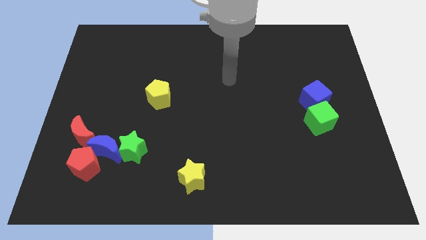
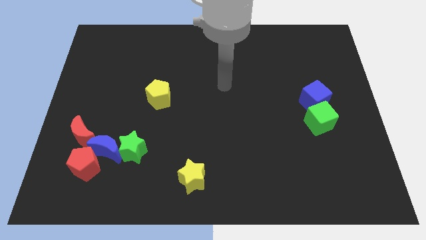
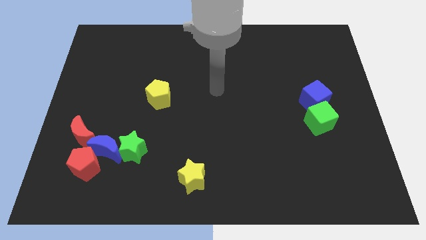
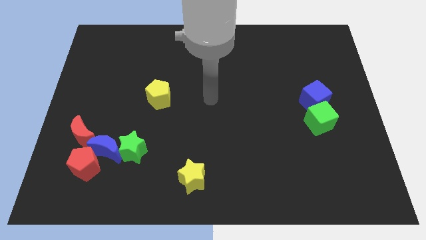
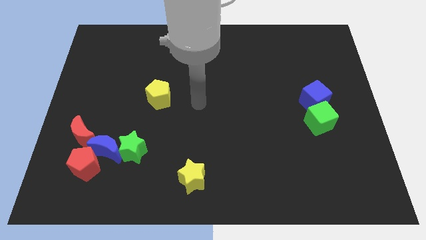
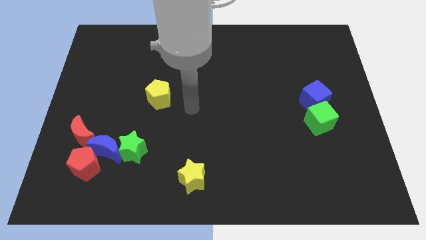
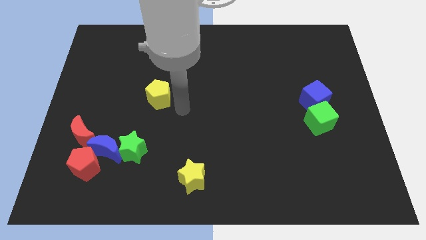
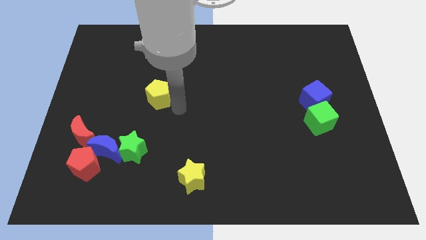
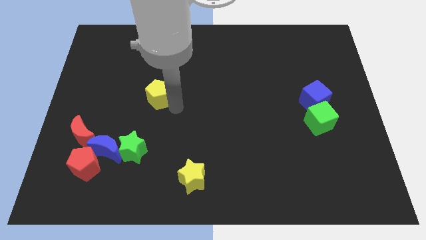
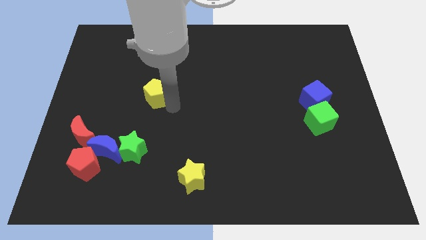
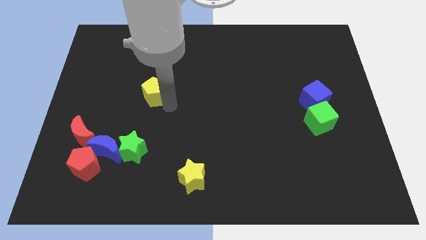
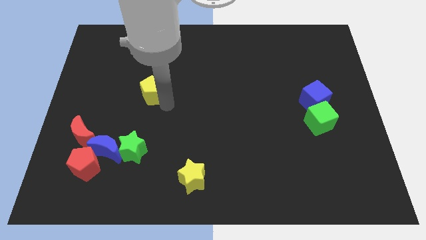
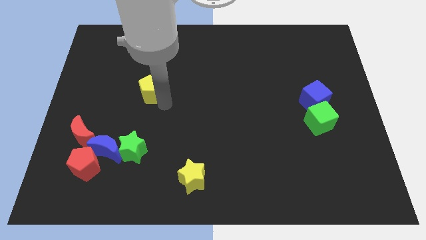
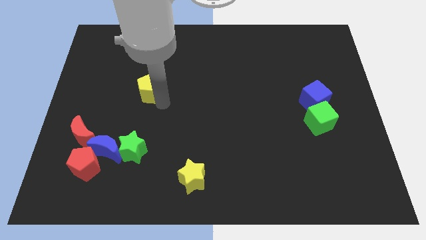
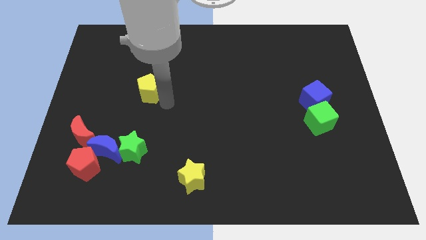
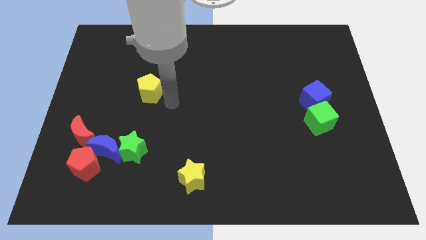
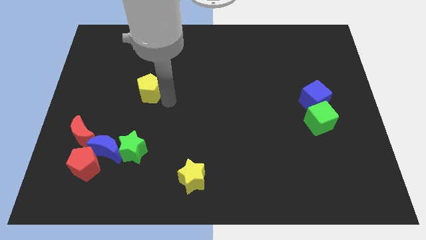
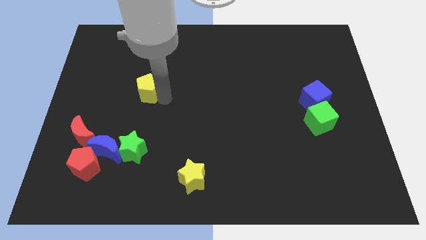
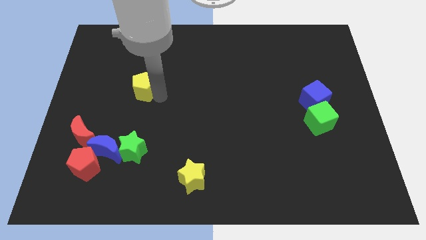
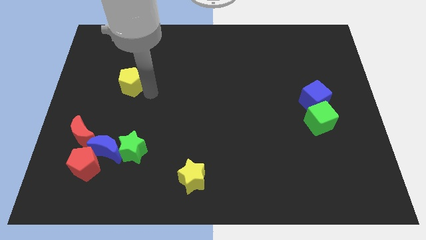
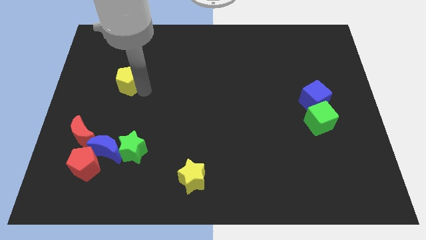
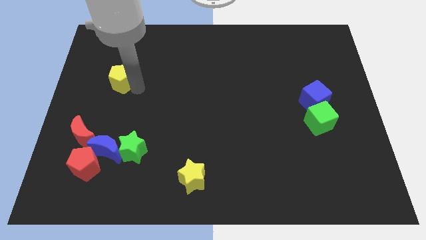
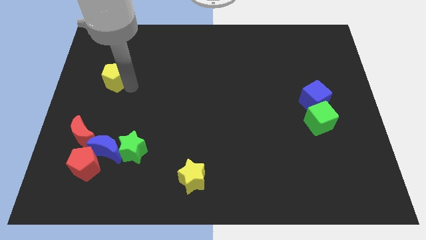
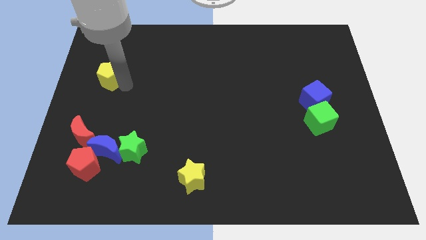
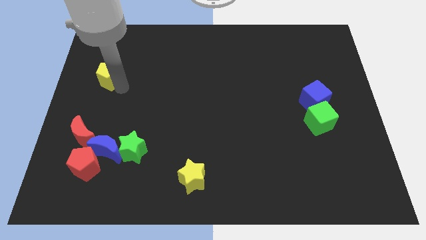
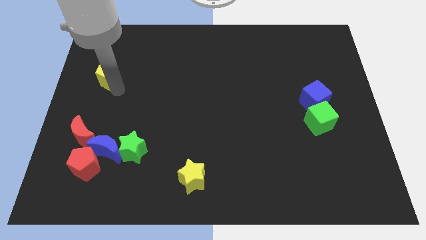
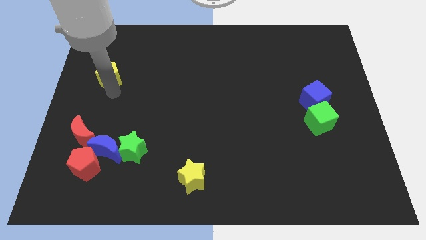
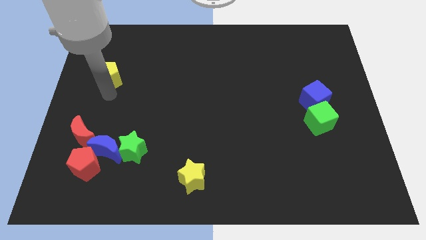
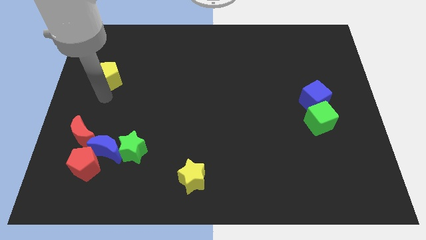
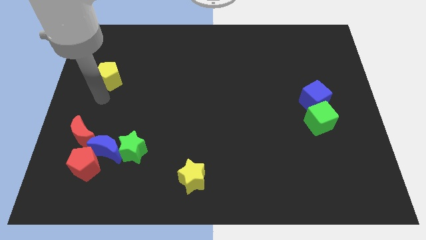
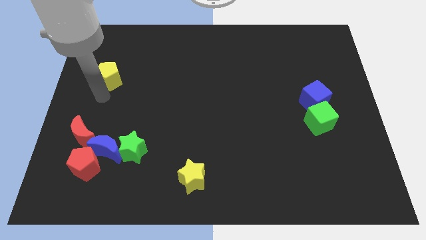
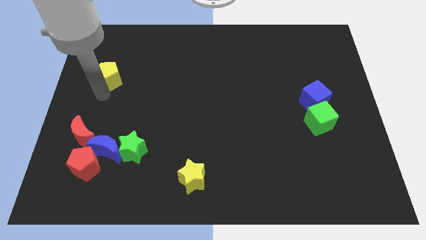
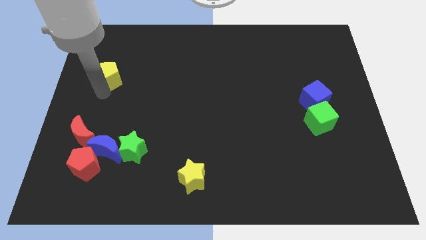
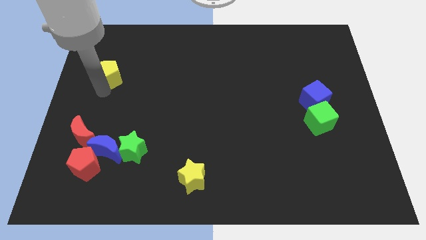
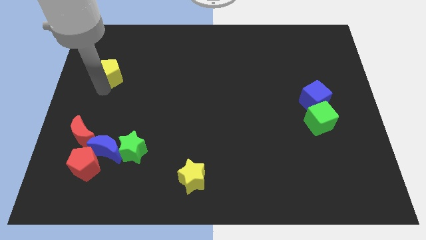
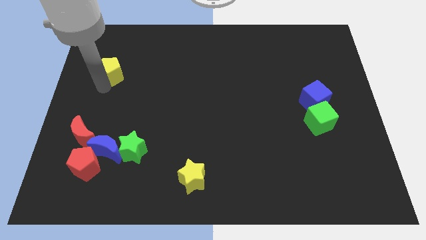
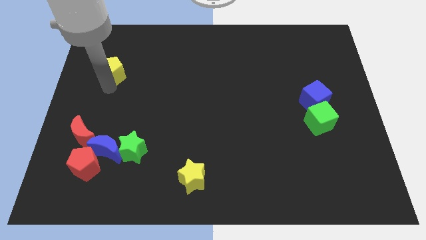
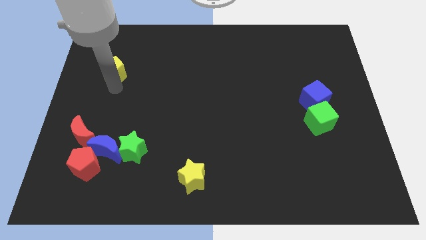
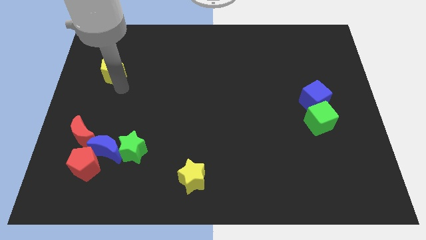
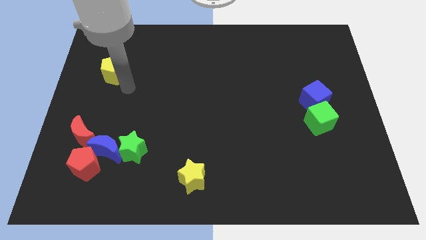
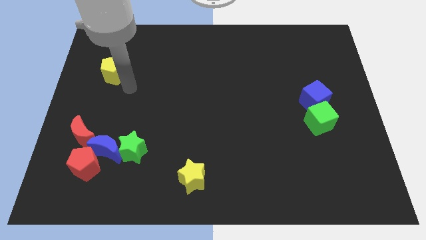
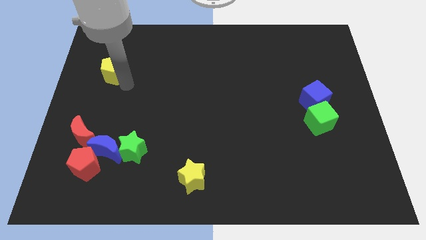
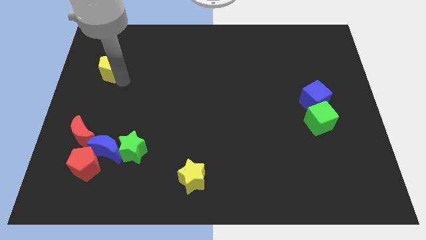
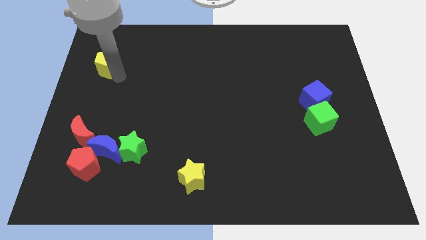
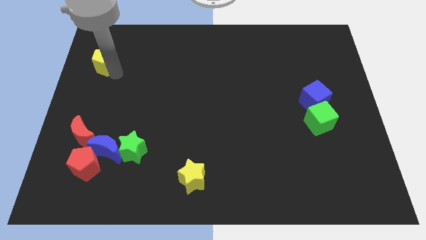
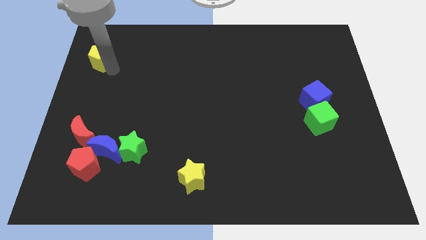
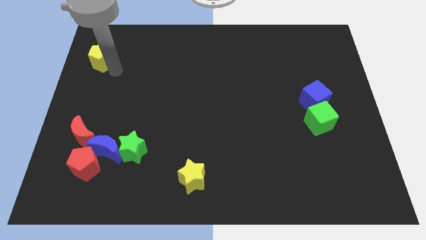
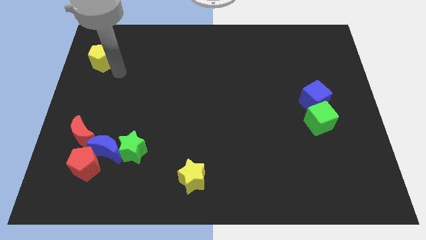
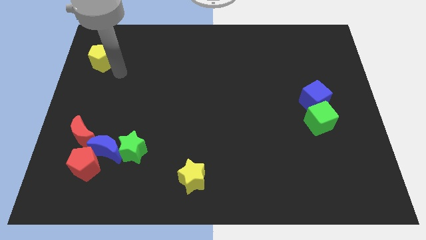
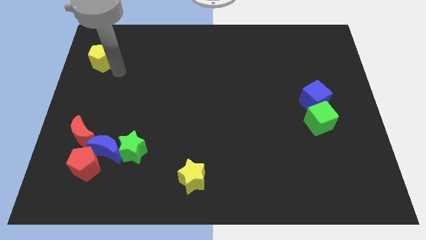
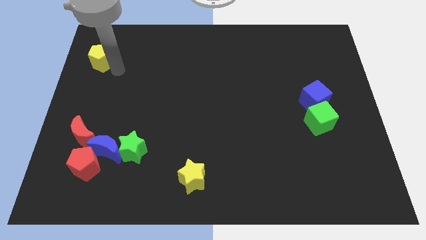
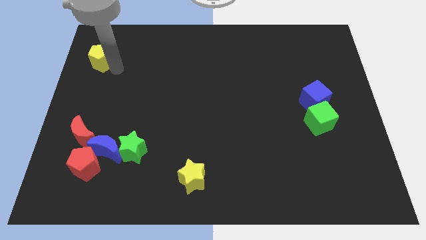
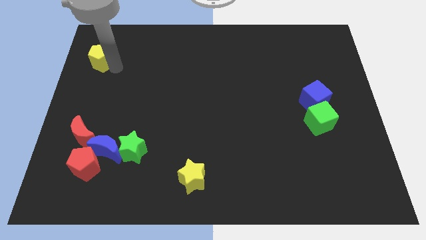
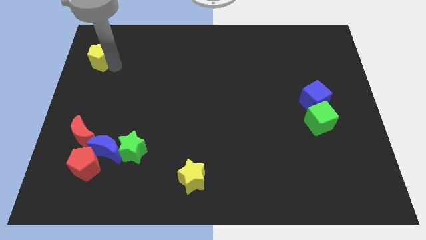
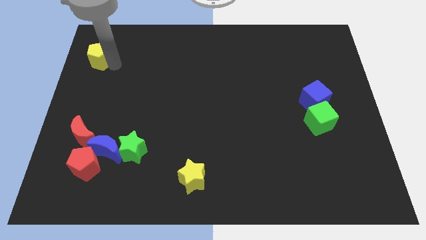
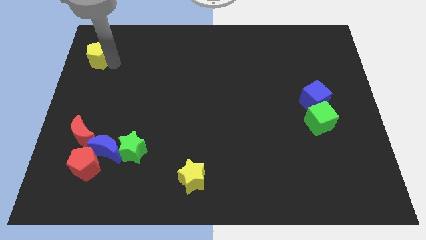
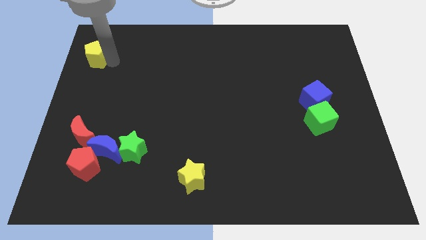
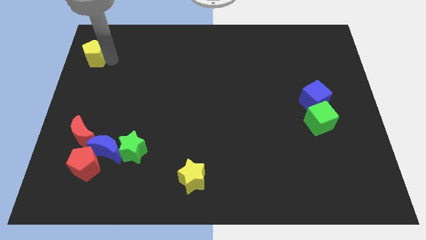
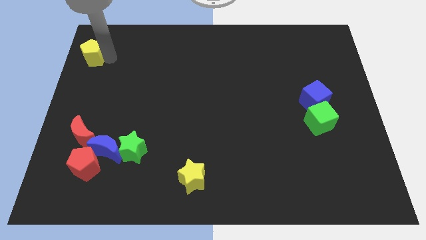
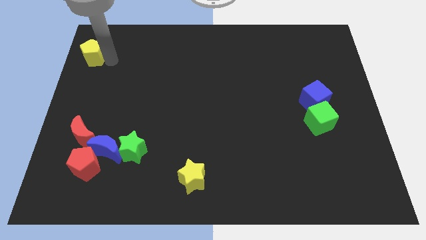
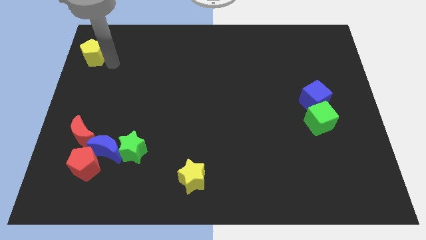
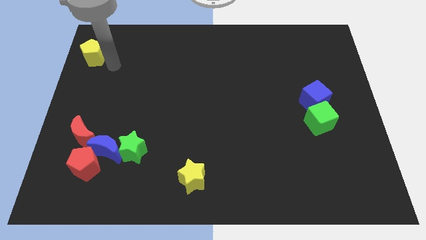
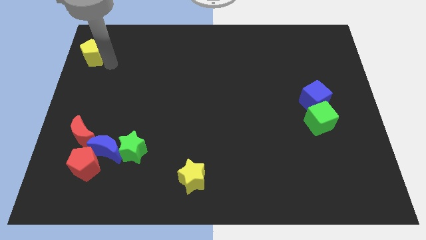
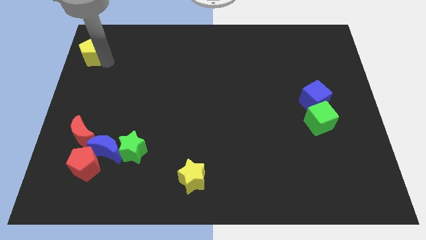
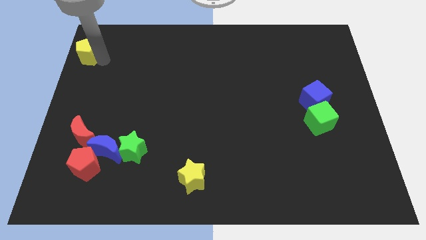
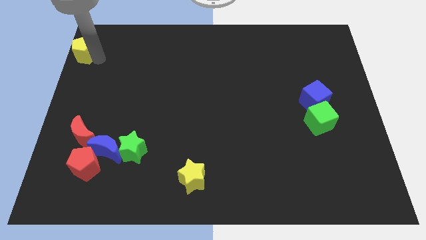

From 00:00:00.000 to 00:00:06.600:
put the yellow pentagon to the top left corner

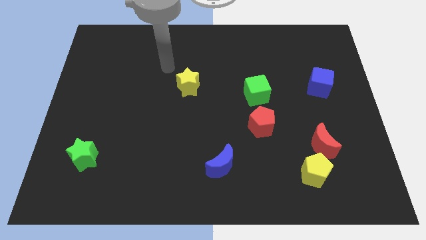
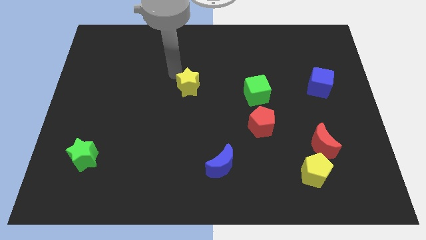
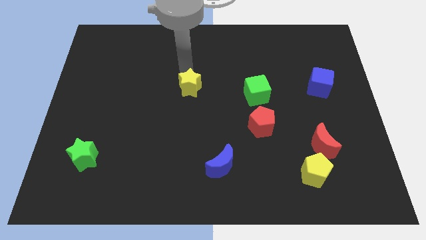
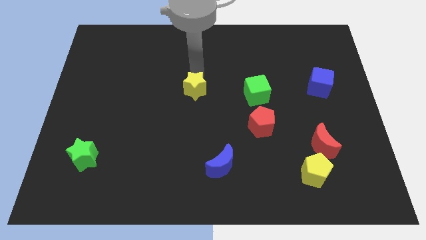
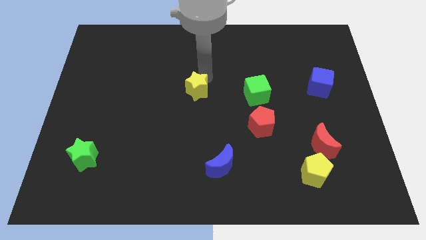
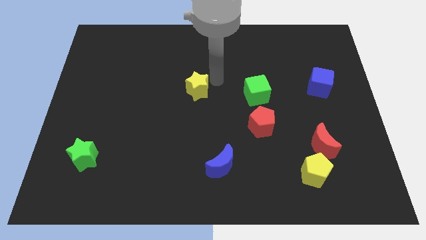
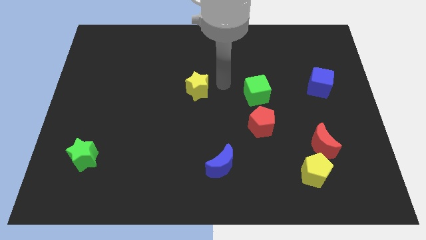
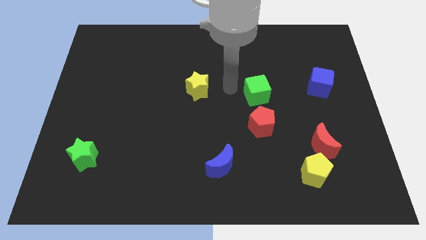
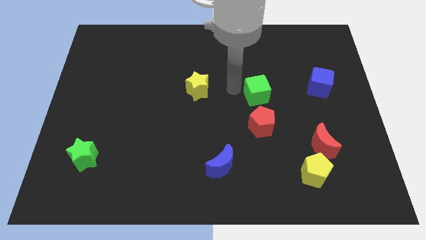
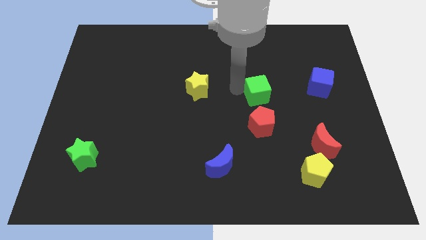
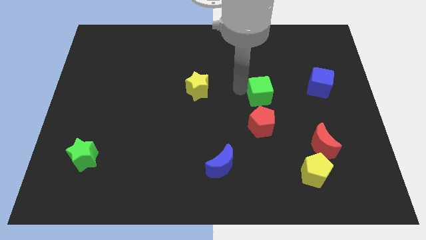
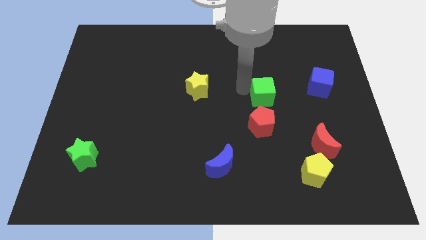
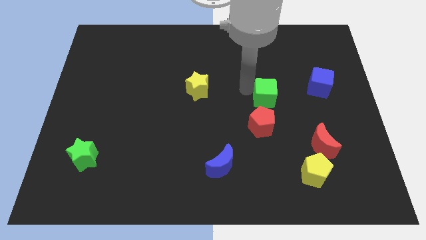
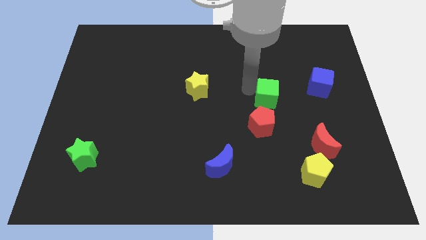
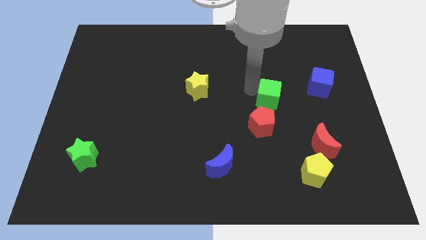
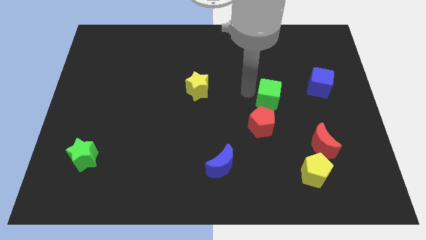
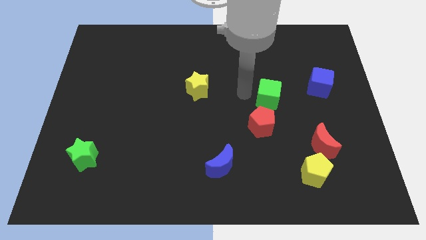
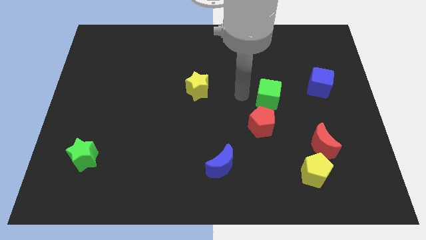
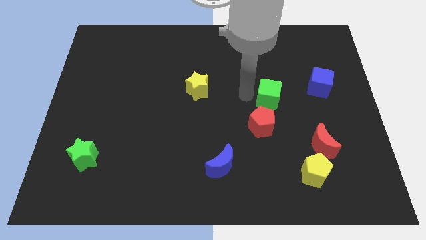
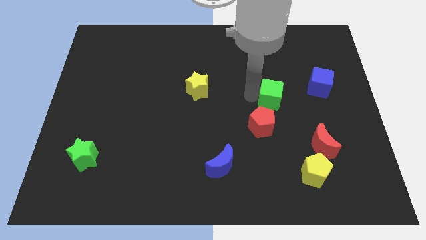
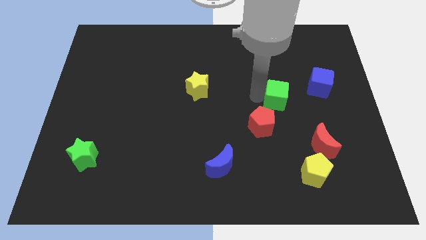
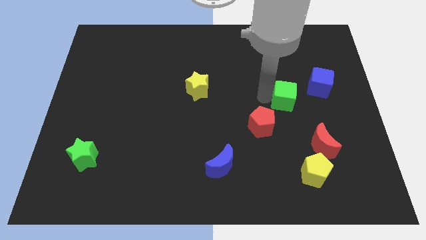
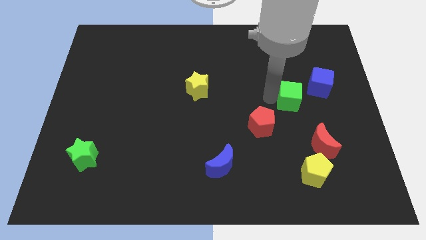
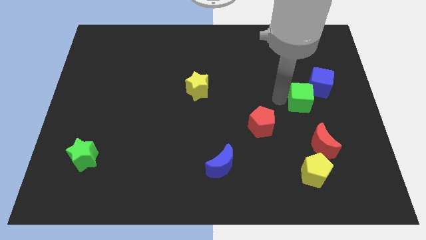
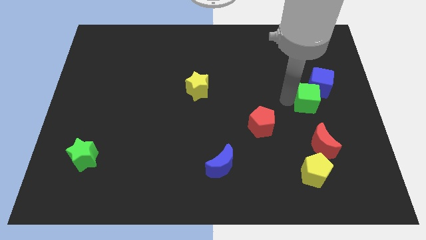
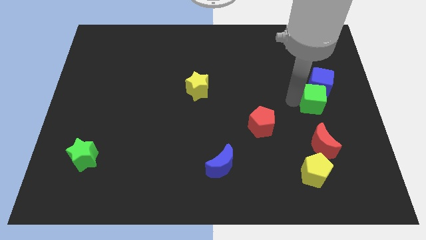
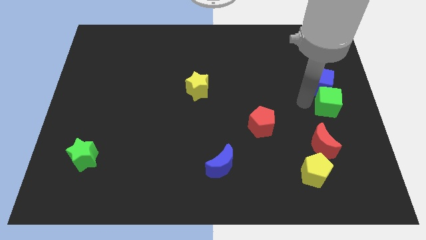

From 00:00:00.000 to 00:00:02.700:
slide the green cube to the right side
